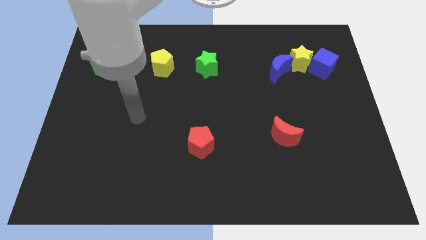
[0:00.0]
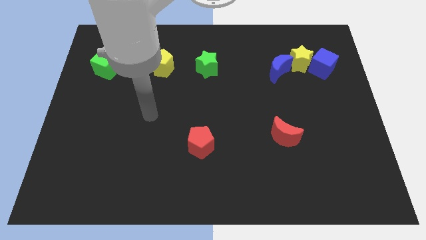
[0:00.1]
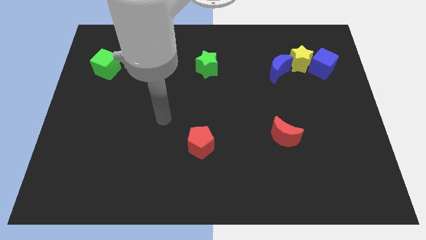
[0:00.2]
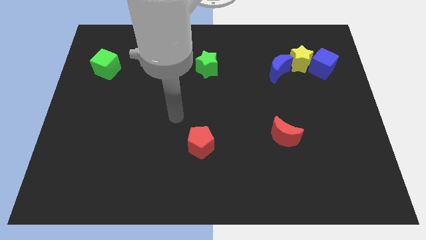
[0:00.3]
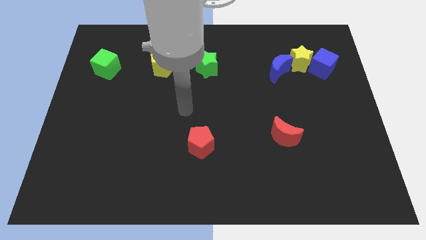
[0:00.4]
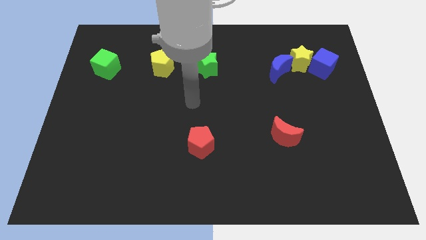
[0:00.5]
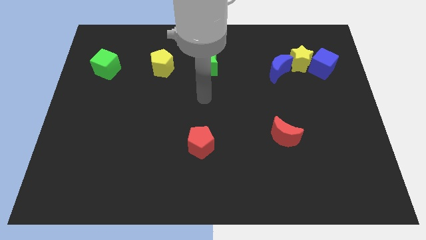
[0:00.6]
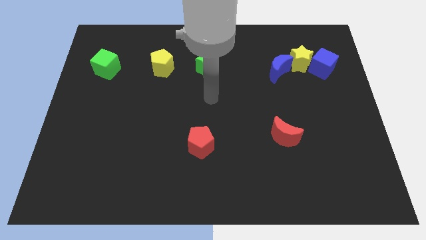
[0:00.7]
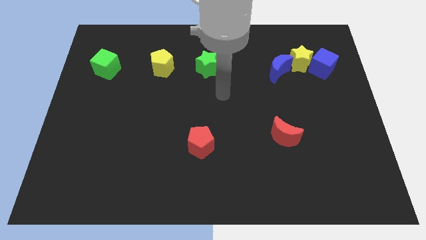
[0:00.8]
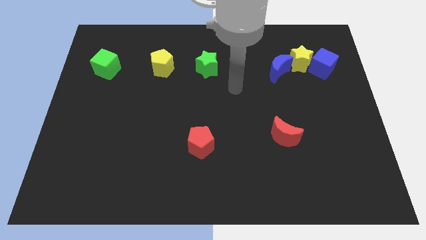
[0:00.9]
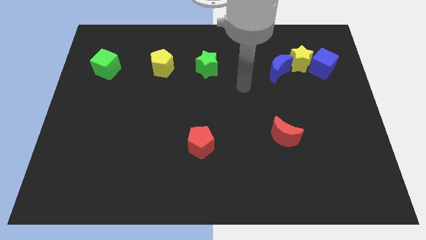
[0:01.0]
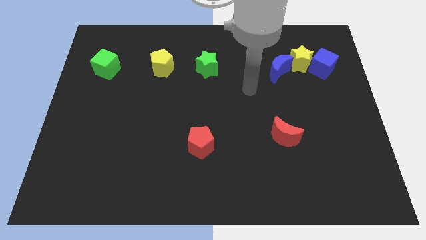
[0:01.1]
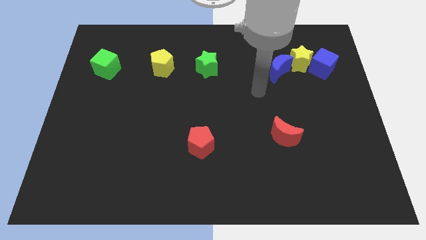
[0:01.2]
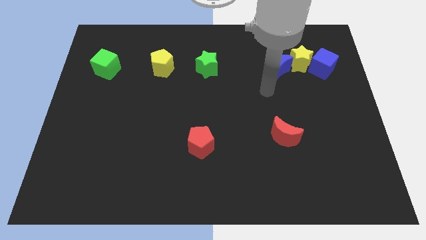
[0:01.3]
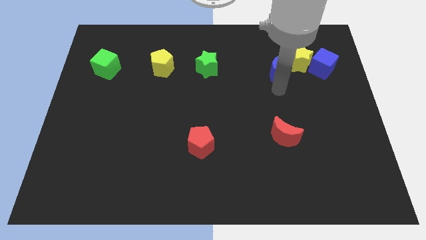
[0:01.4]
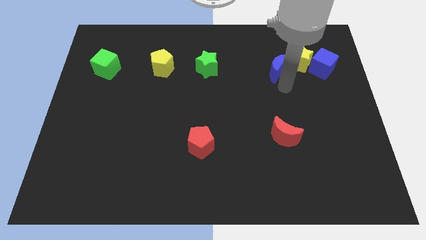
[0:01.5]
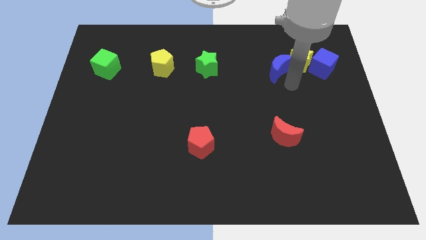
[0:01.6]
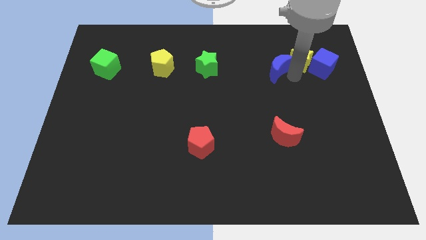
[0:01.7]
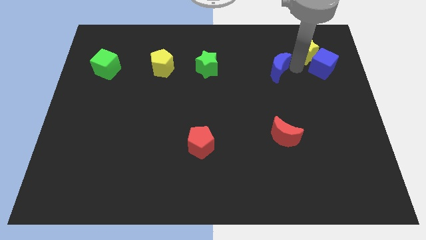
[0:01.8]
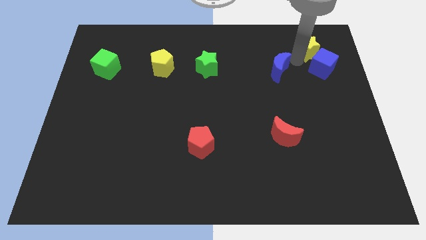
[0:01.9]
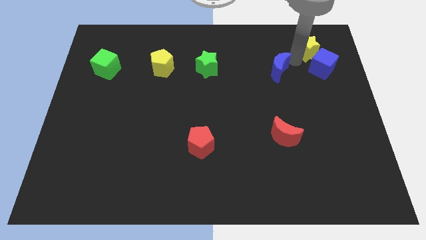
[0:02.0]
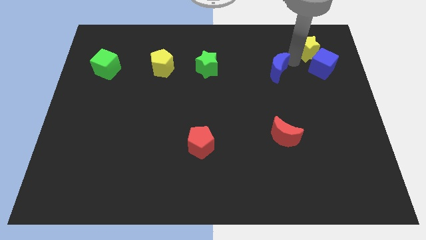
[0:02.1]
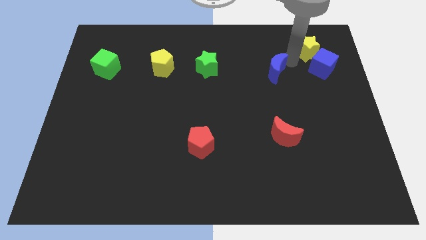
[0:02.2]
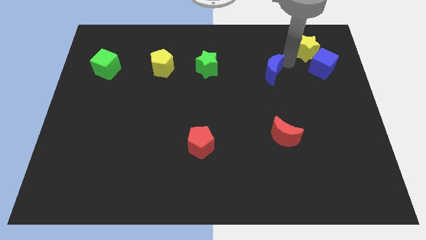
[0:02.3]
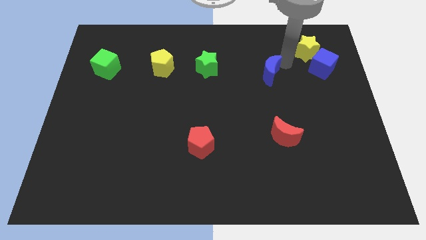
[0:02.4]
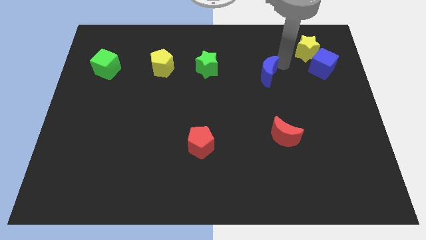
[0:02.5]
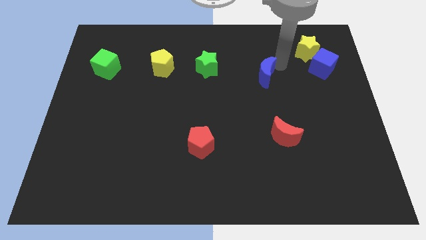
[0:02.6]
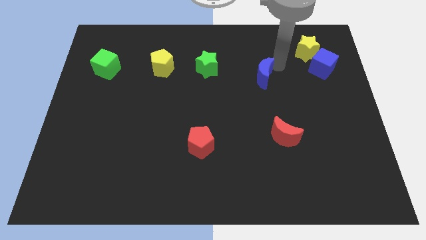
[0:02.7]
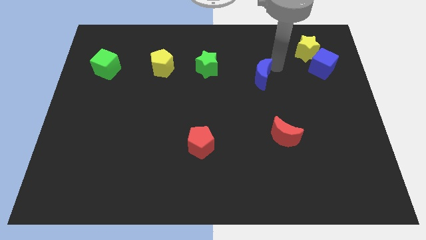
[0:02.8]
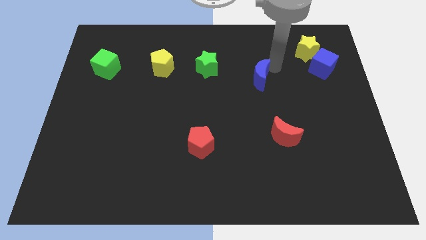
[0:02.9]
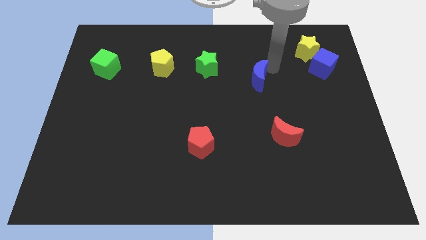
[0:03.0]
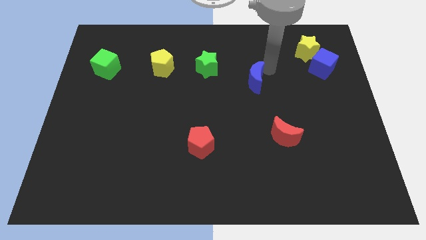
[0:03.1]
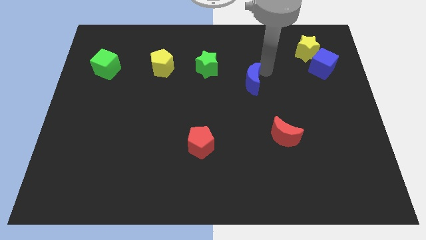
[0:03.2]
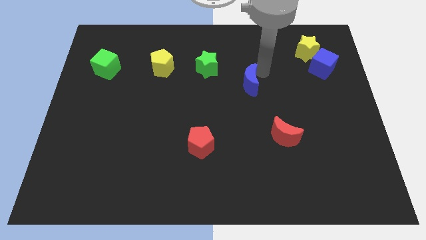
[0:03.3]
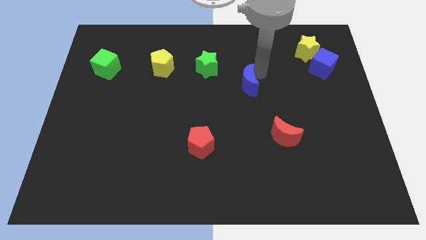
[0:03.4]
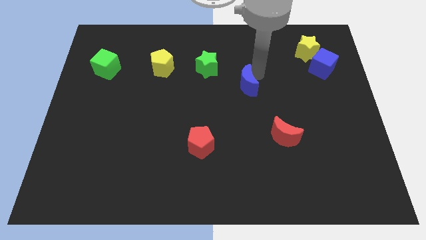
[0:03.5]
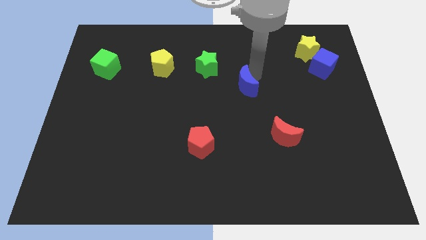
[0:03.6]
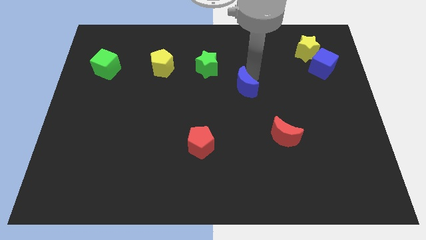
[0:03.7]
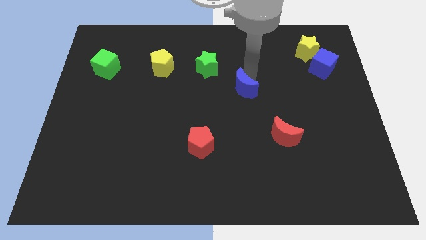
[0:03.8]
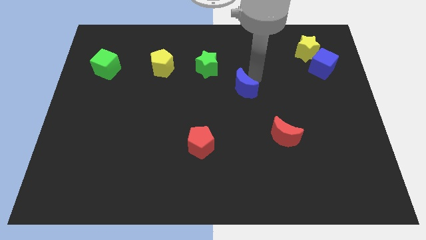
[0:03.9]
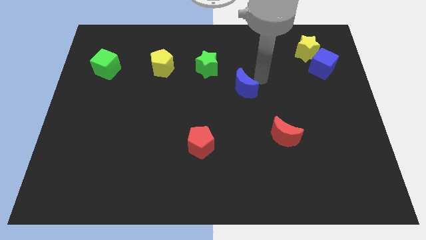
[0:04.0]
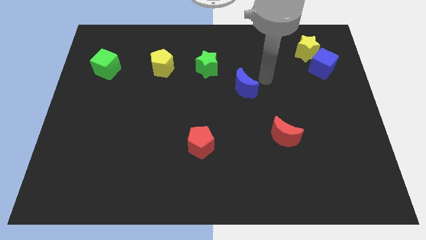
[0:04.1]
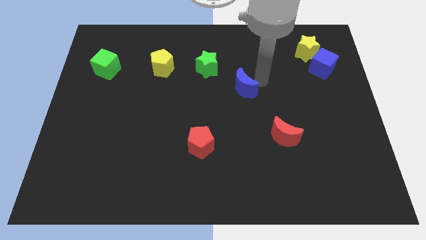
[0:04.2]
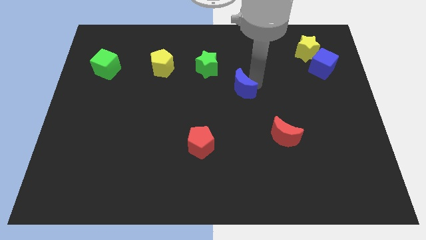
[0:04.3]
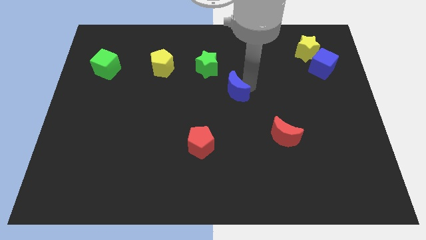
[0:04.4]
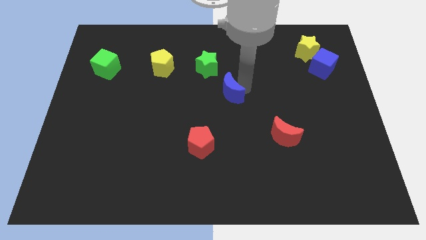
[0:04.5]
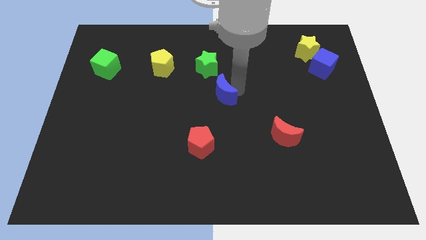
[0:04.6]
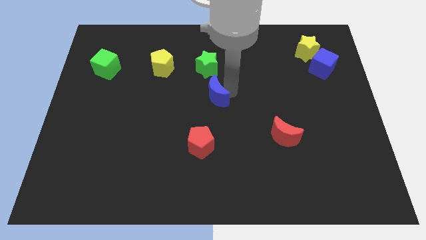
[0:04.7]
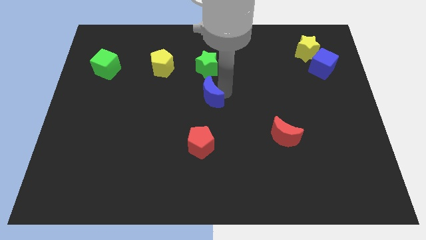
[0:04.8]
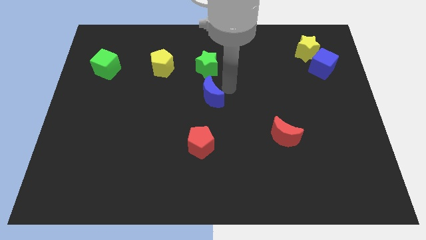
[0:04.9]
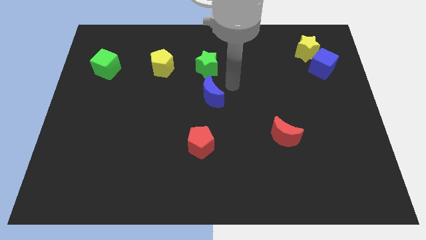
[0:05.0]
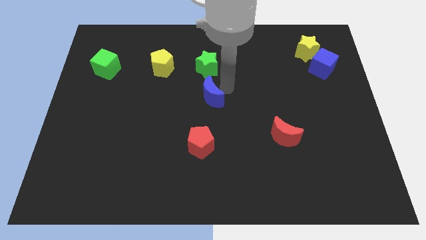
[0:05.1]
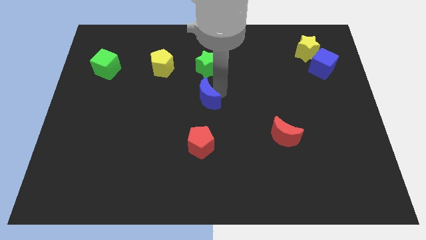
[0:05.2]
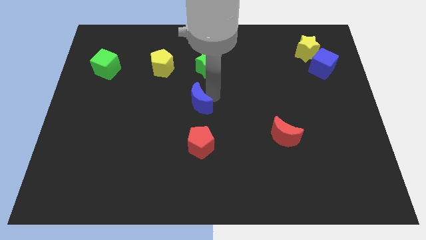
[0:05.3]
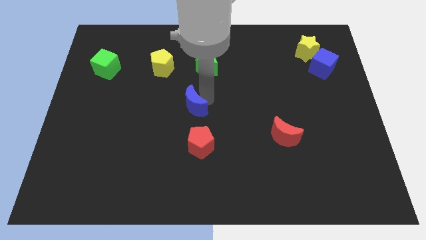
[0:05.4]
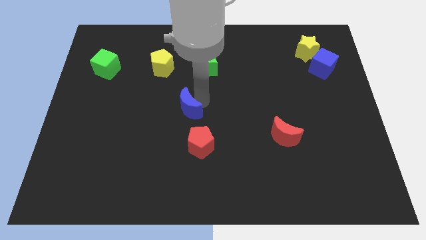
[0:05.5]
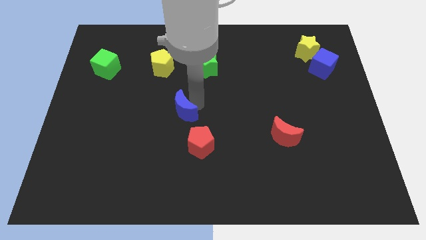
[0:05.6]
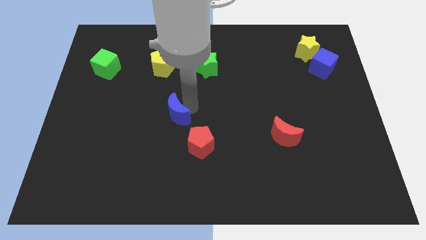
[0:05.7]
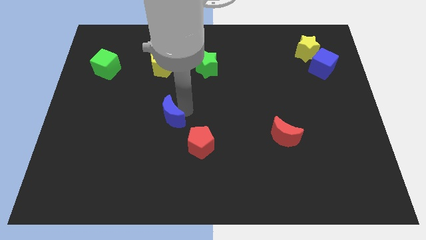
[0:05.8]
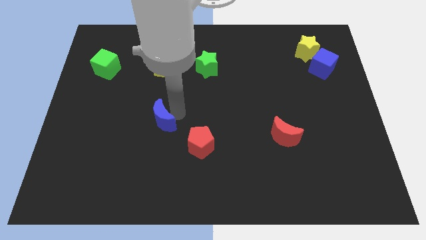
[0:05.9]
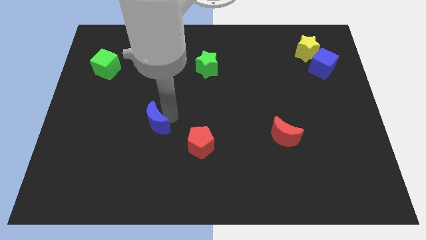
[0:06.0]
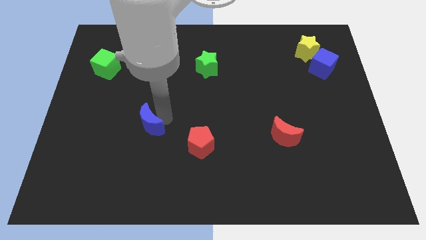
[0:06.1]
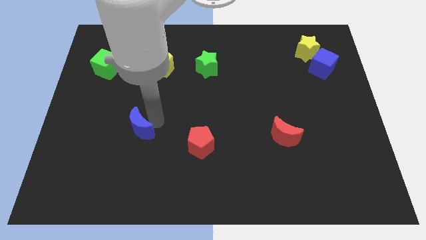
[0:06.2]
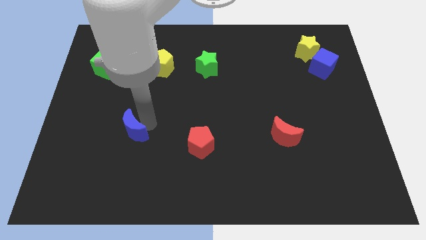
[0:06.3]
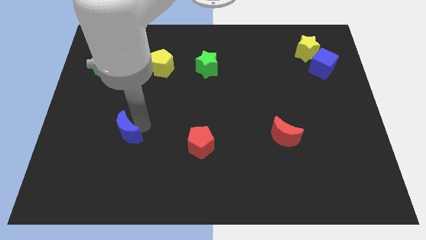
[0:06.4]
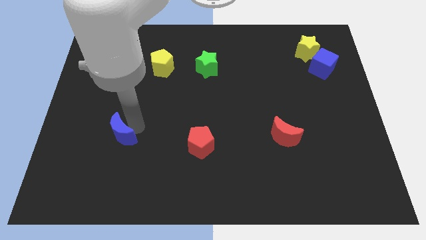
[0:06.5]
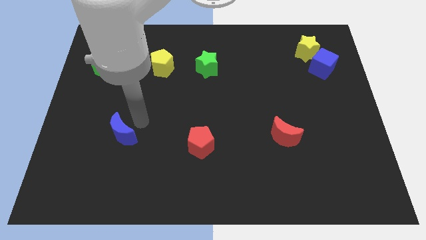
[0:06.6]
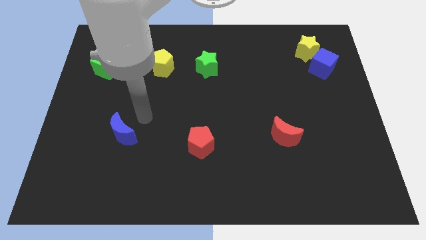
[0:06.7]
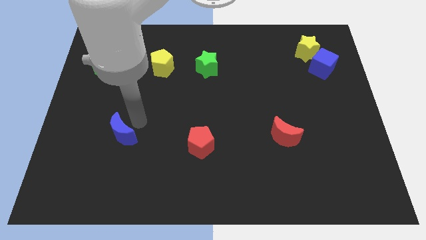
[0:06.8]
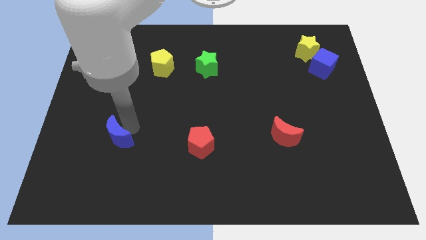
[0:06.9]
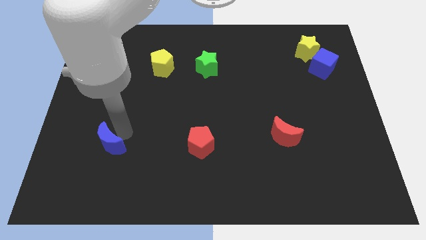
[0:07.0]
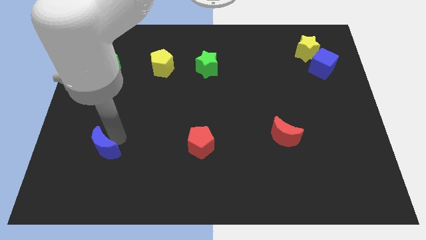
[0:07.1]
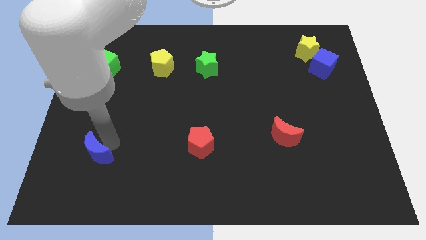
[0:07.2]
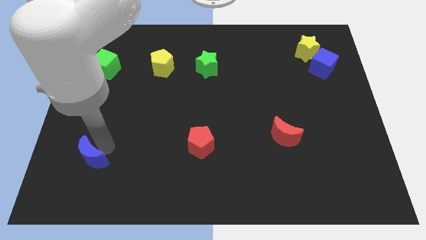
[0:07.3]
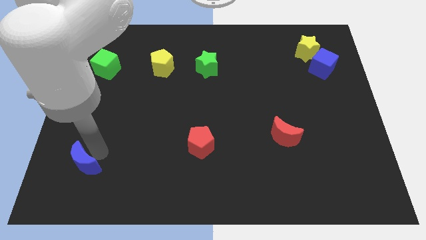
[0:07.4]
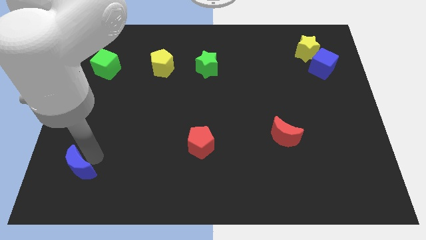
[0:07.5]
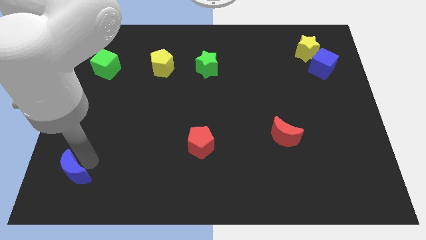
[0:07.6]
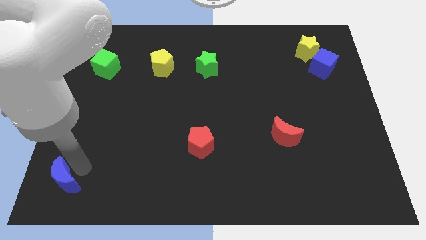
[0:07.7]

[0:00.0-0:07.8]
move the blue moon to the lower left corner
